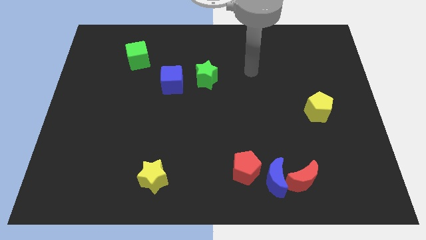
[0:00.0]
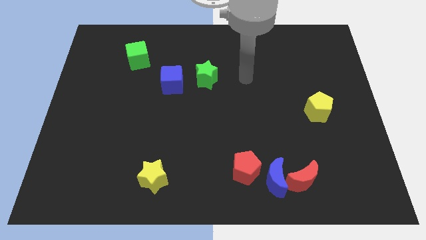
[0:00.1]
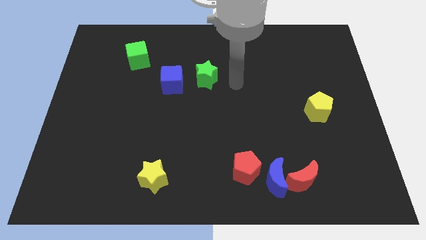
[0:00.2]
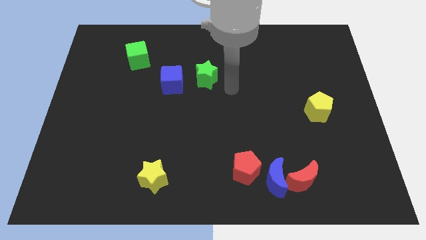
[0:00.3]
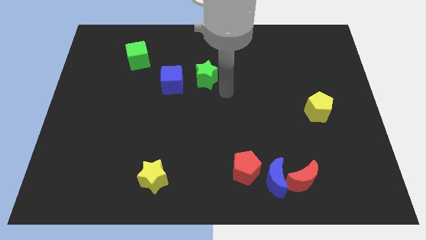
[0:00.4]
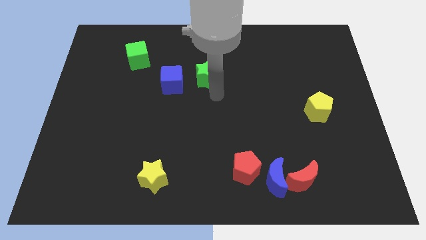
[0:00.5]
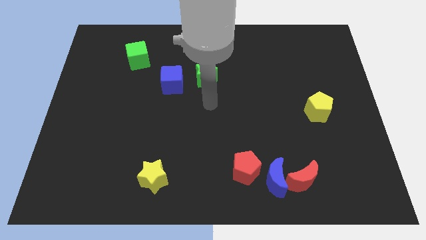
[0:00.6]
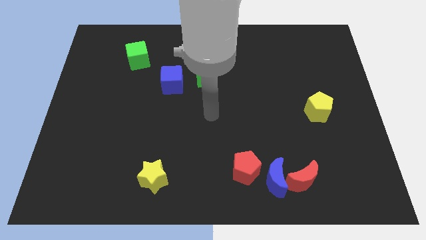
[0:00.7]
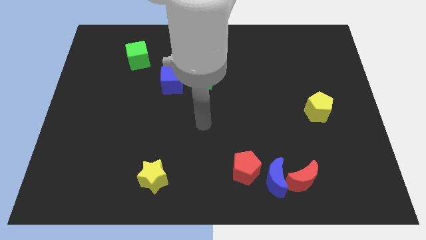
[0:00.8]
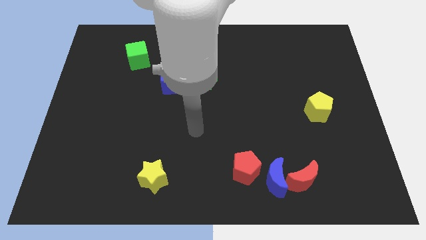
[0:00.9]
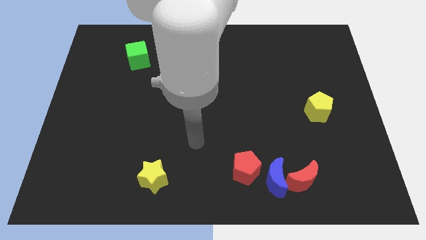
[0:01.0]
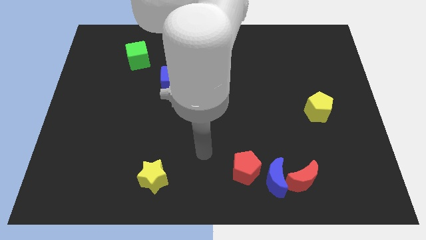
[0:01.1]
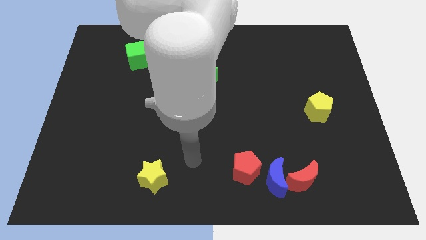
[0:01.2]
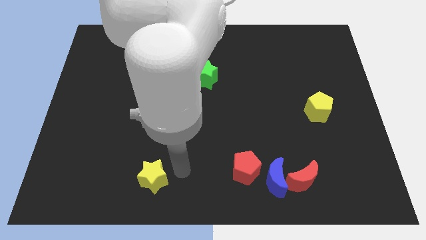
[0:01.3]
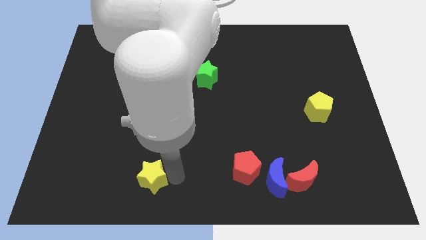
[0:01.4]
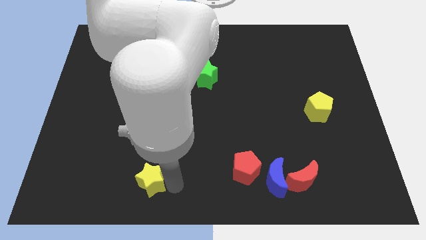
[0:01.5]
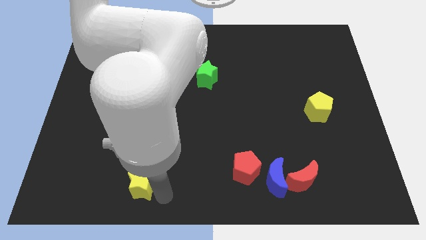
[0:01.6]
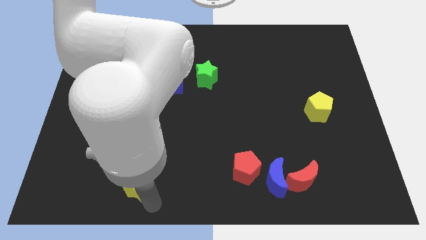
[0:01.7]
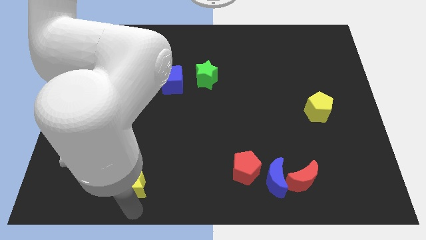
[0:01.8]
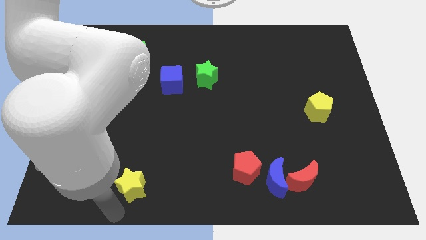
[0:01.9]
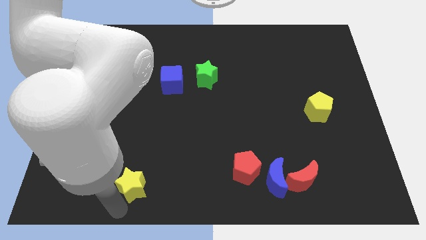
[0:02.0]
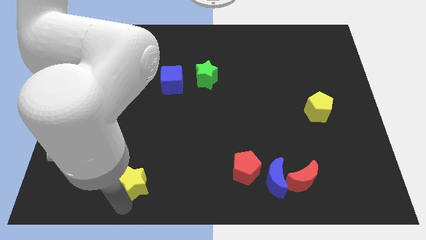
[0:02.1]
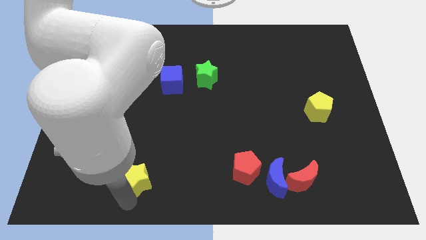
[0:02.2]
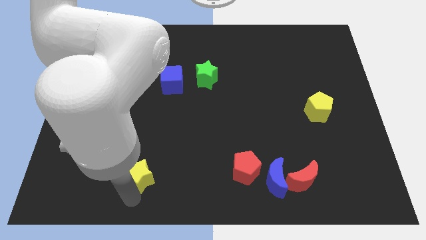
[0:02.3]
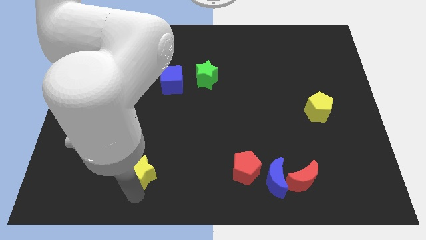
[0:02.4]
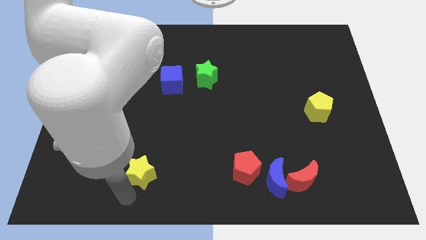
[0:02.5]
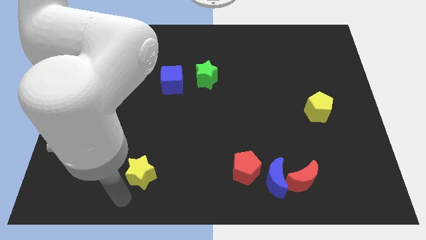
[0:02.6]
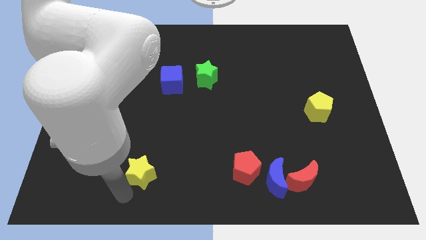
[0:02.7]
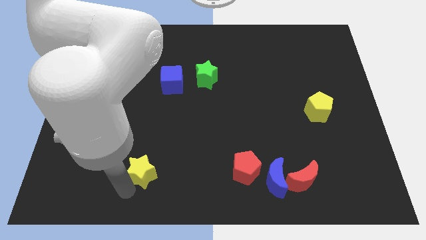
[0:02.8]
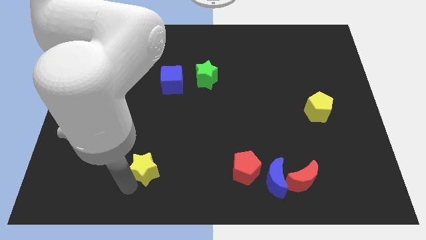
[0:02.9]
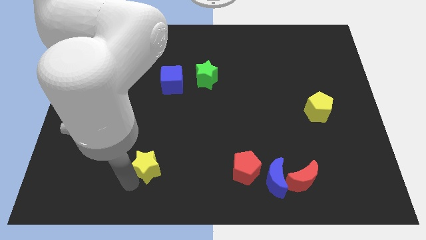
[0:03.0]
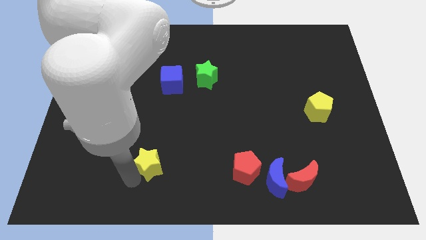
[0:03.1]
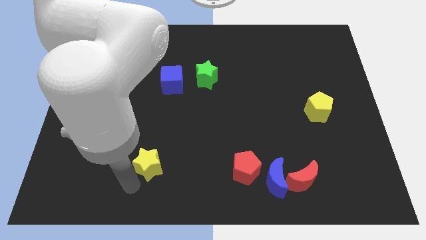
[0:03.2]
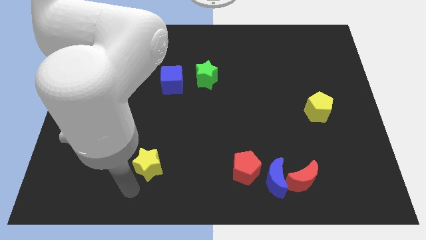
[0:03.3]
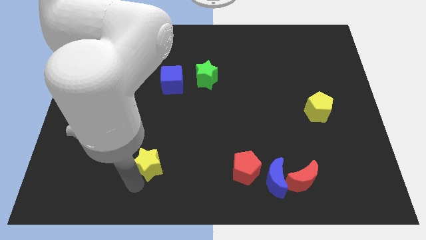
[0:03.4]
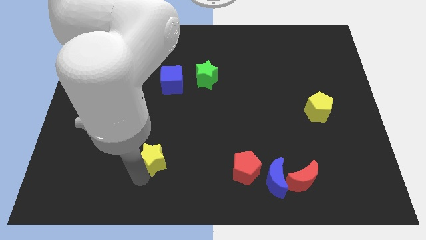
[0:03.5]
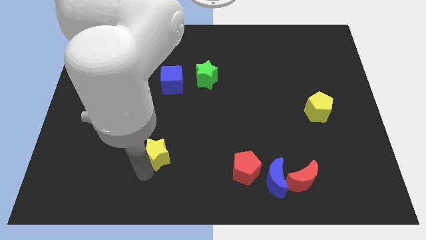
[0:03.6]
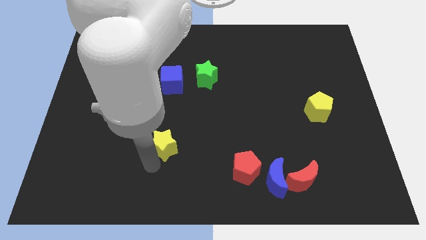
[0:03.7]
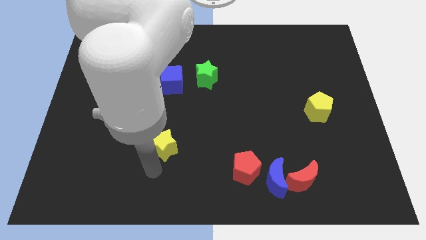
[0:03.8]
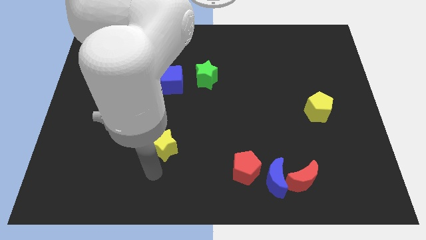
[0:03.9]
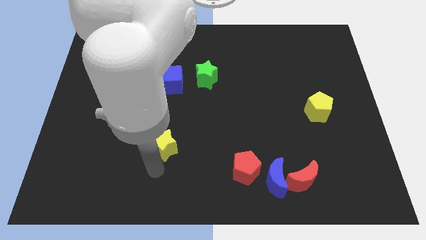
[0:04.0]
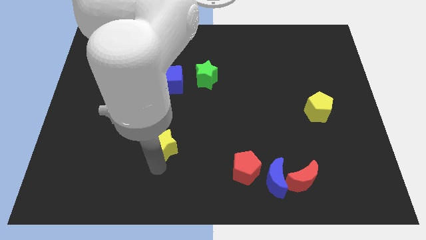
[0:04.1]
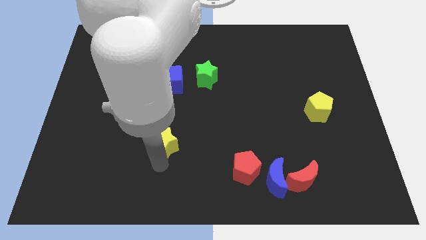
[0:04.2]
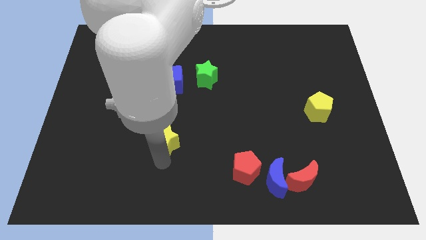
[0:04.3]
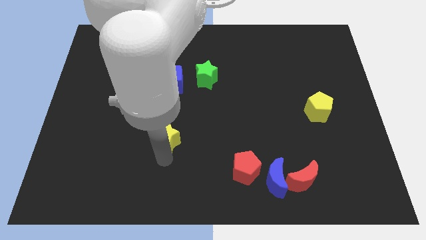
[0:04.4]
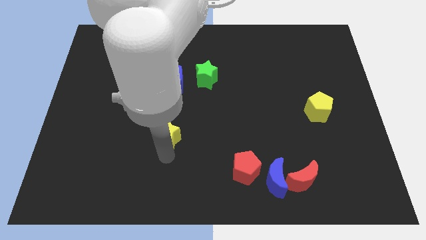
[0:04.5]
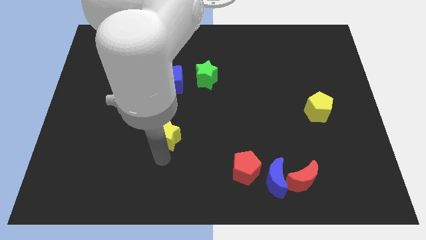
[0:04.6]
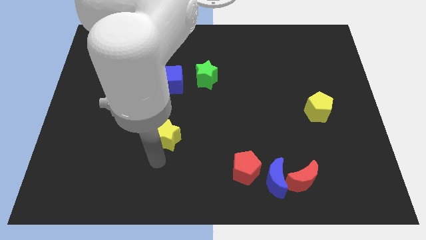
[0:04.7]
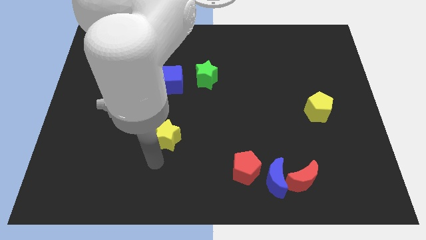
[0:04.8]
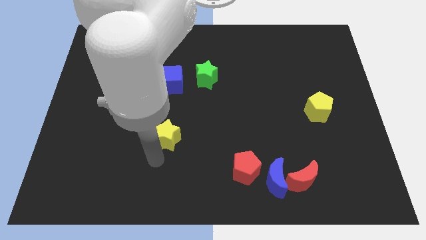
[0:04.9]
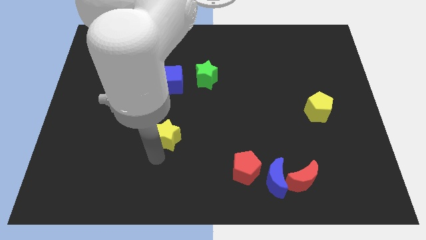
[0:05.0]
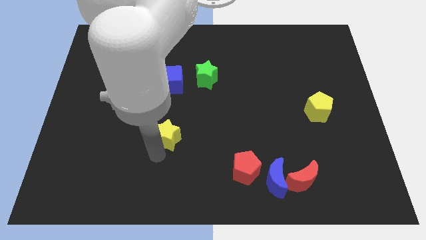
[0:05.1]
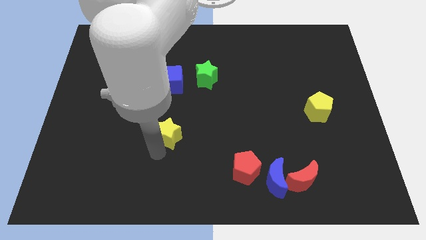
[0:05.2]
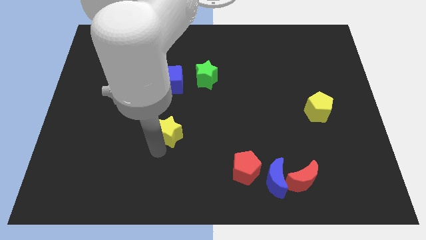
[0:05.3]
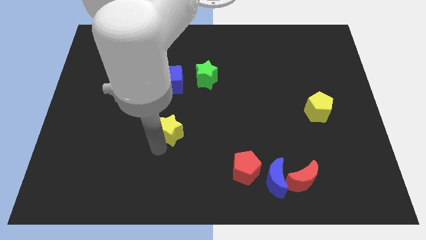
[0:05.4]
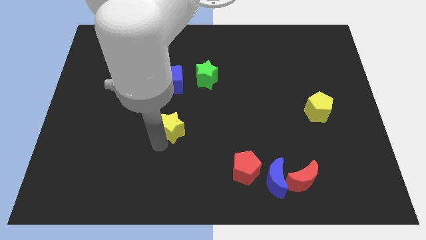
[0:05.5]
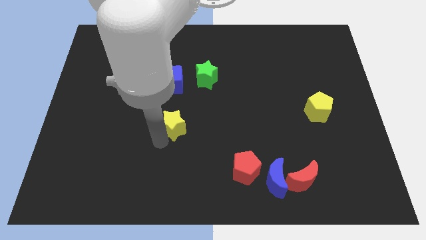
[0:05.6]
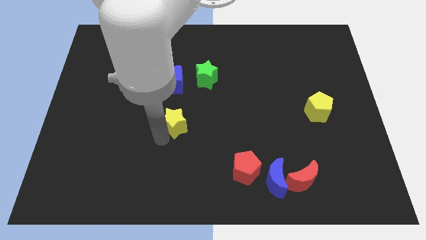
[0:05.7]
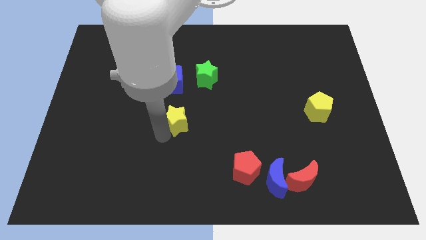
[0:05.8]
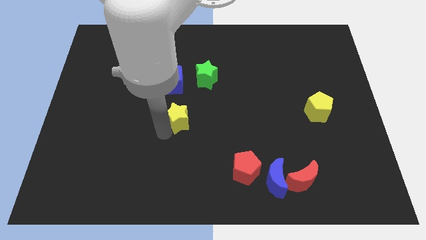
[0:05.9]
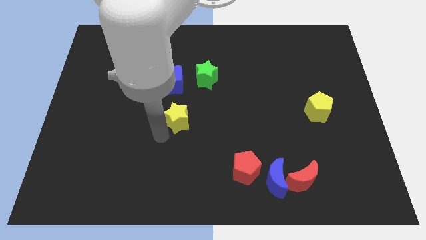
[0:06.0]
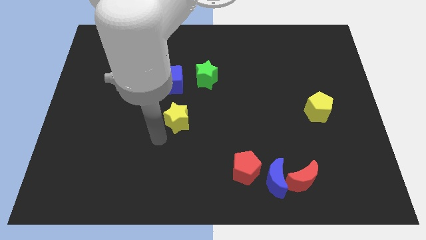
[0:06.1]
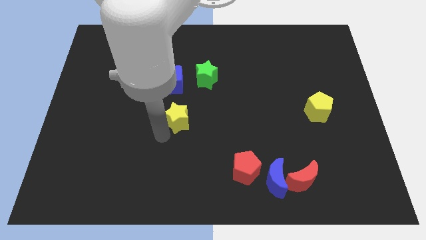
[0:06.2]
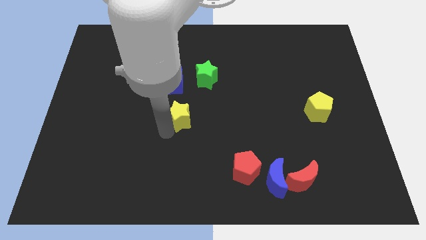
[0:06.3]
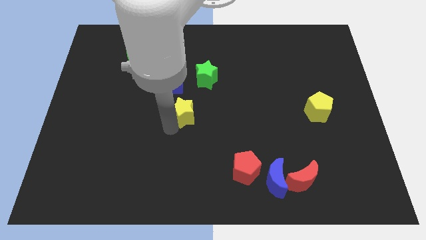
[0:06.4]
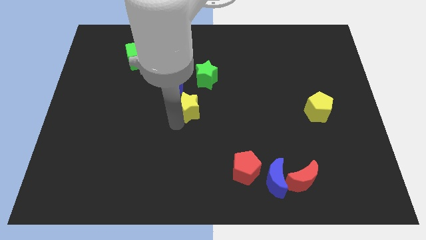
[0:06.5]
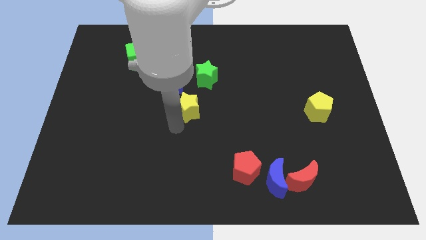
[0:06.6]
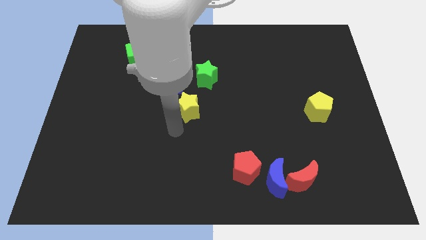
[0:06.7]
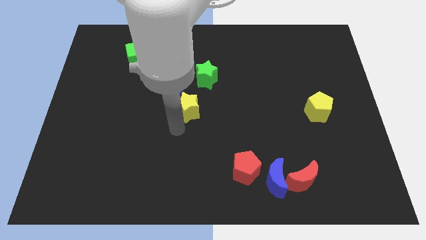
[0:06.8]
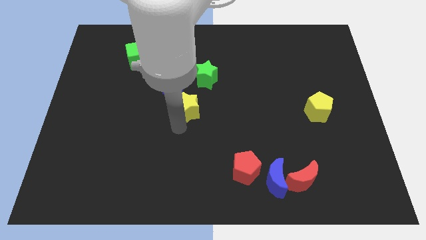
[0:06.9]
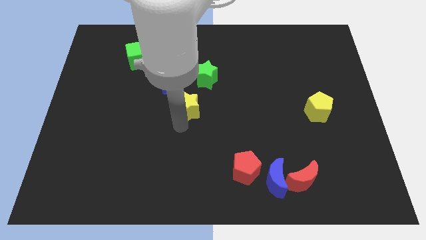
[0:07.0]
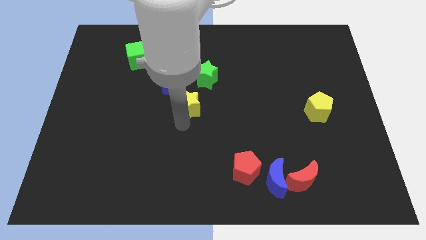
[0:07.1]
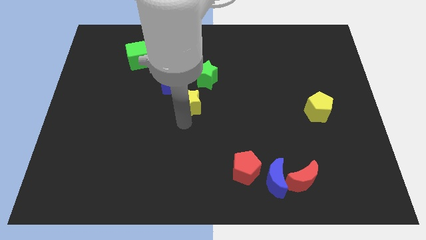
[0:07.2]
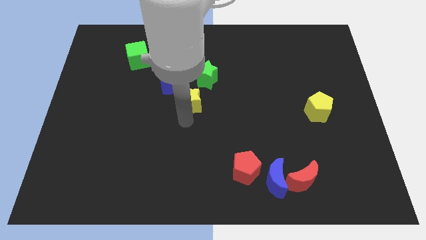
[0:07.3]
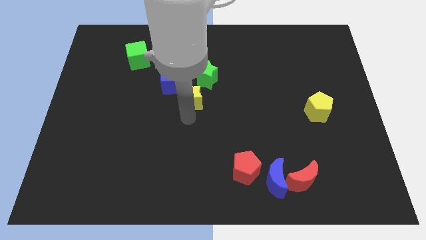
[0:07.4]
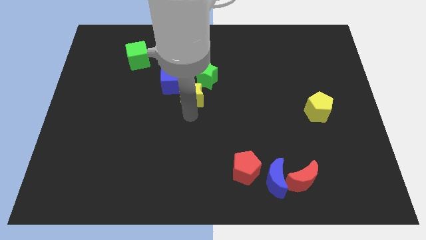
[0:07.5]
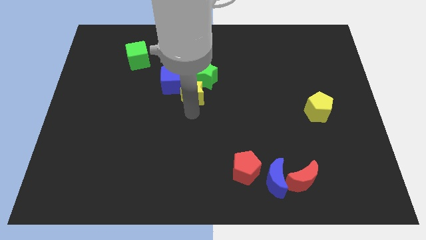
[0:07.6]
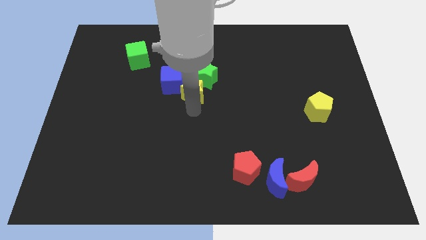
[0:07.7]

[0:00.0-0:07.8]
move the yellow star towards the green star
